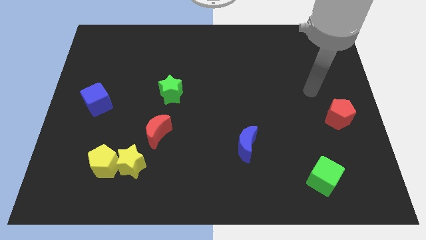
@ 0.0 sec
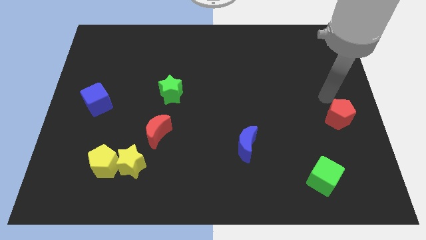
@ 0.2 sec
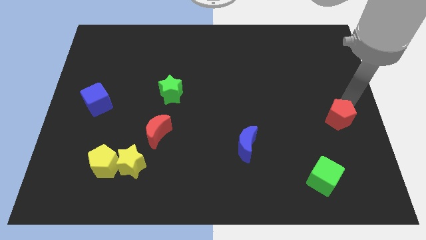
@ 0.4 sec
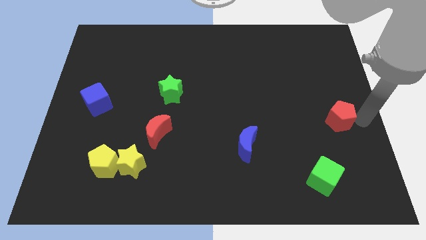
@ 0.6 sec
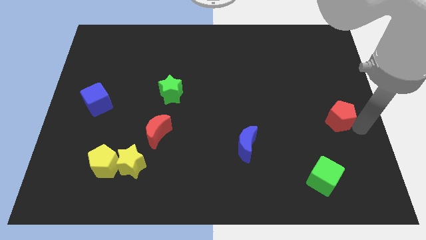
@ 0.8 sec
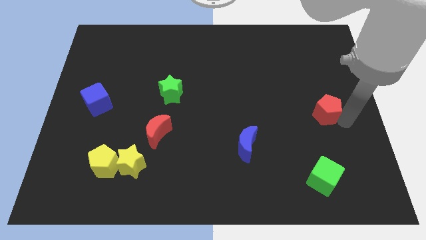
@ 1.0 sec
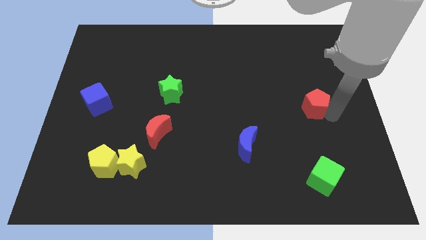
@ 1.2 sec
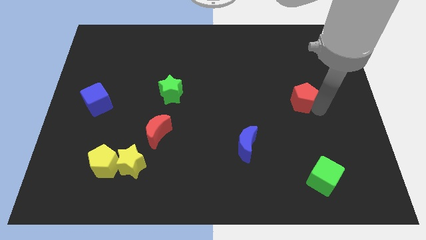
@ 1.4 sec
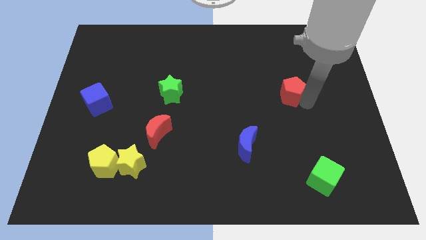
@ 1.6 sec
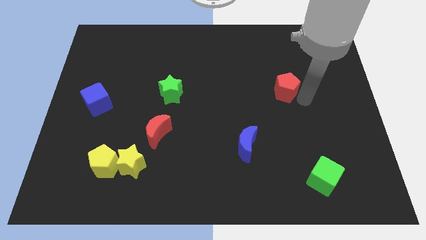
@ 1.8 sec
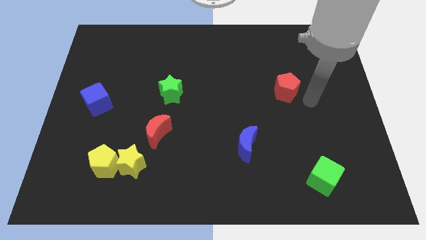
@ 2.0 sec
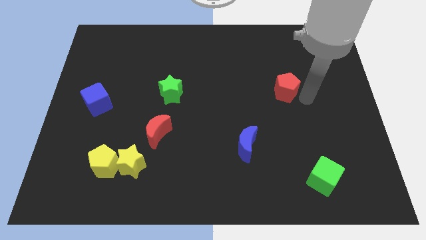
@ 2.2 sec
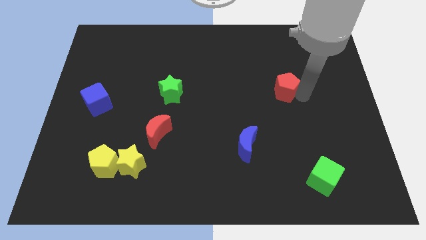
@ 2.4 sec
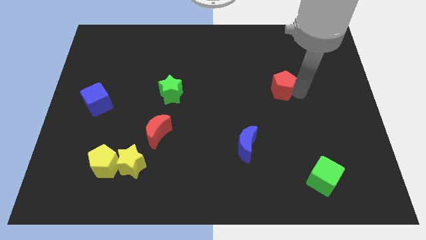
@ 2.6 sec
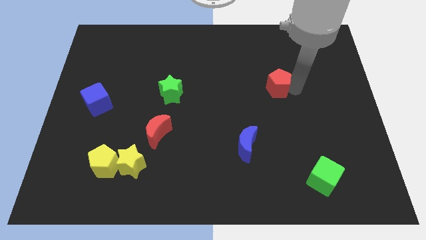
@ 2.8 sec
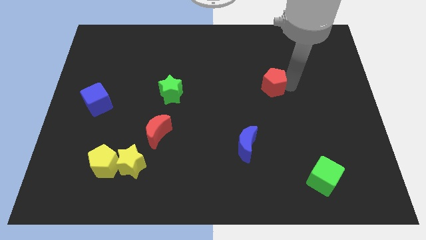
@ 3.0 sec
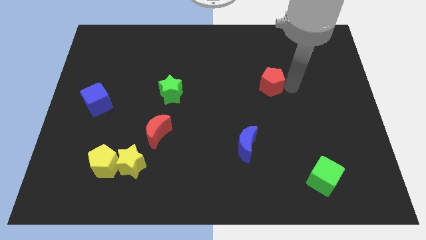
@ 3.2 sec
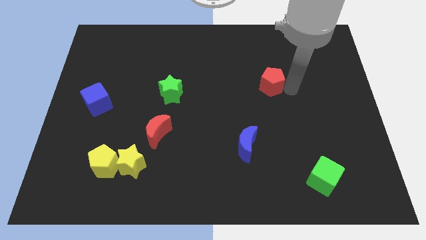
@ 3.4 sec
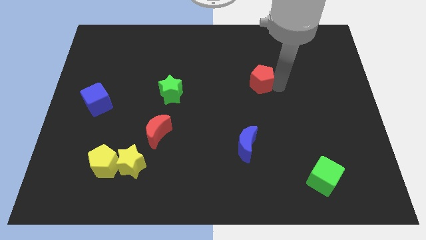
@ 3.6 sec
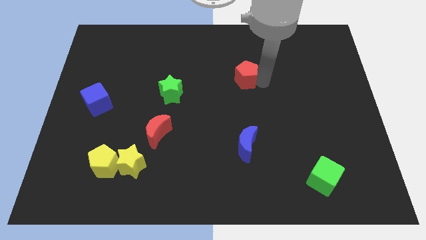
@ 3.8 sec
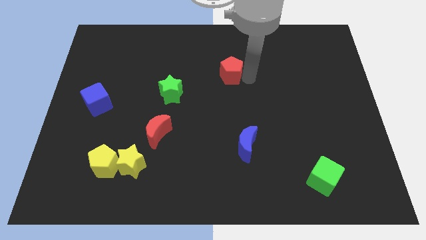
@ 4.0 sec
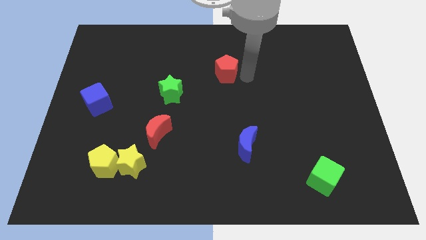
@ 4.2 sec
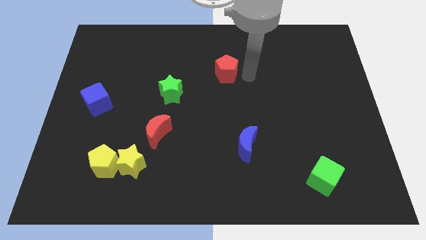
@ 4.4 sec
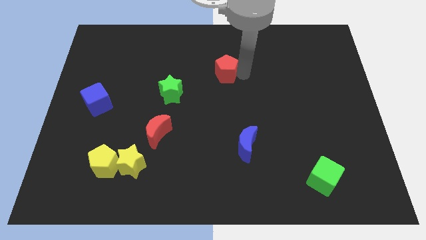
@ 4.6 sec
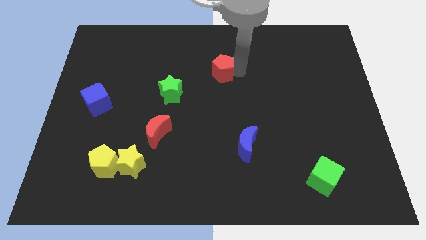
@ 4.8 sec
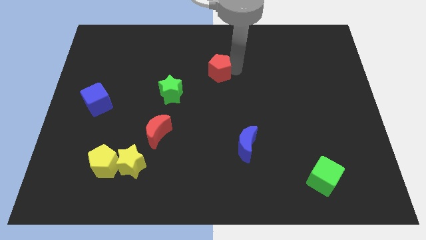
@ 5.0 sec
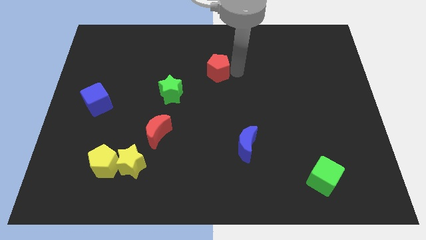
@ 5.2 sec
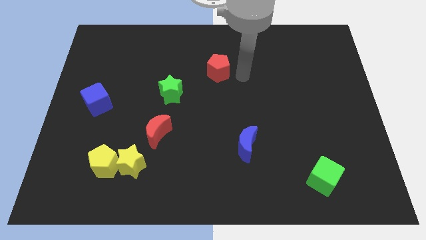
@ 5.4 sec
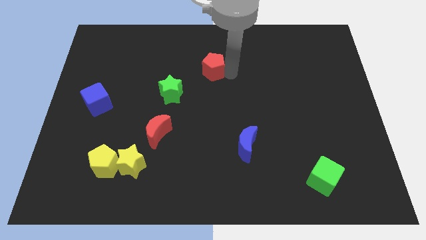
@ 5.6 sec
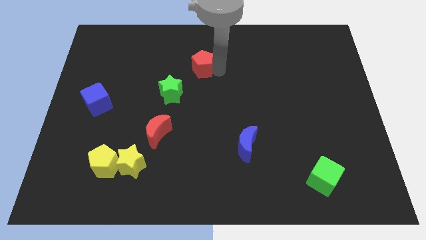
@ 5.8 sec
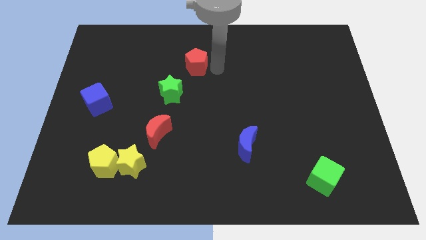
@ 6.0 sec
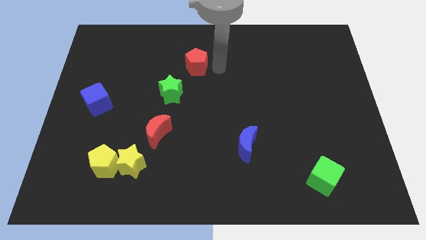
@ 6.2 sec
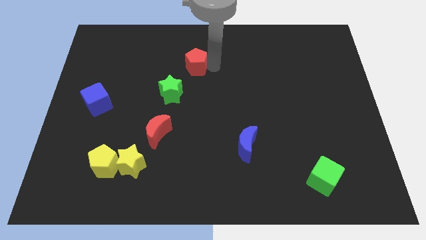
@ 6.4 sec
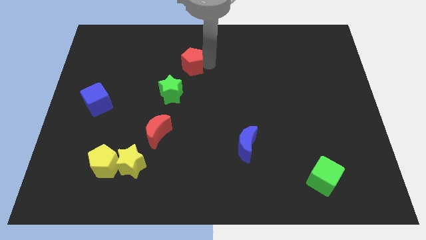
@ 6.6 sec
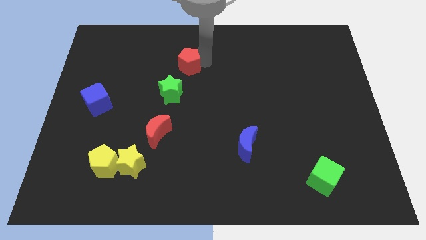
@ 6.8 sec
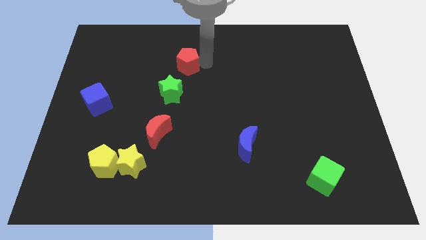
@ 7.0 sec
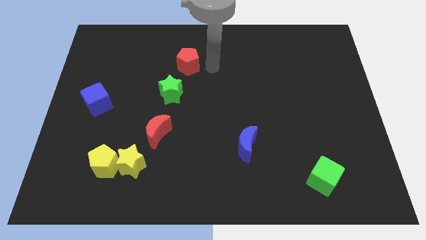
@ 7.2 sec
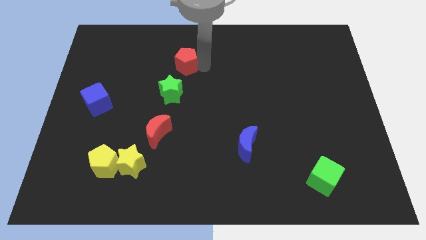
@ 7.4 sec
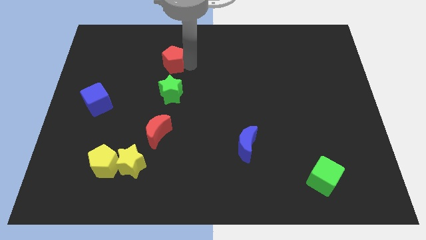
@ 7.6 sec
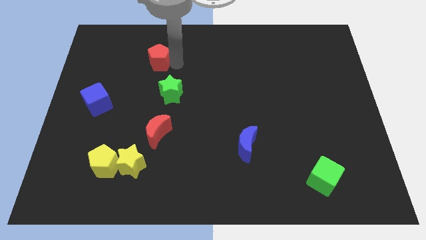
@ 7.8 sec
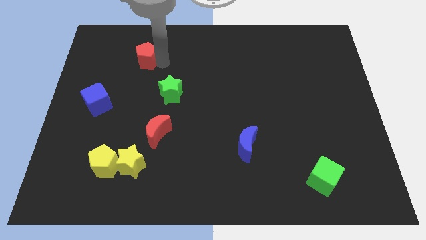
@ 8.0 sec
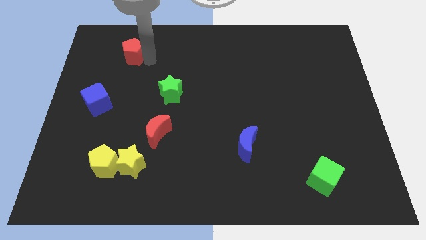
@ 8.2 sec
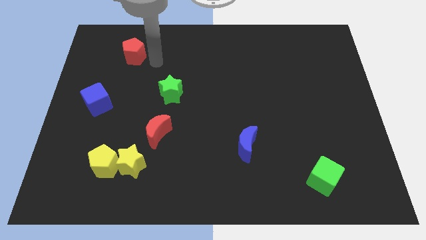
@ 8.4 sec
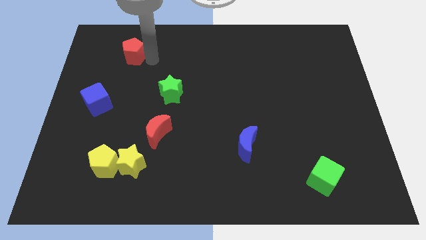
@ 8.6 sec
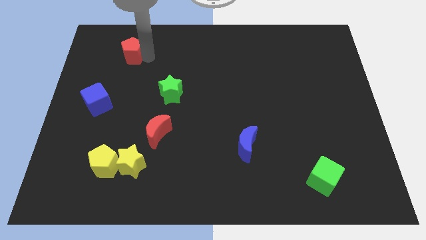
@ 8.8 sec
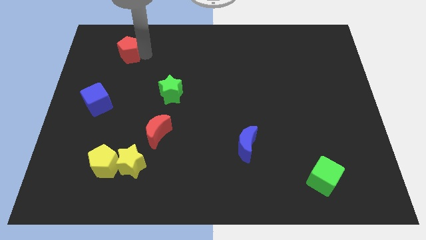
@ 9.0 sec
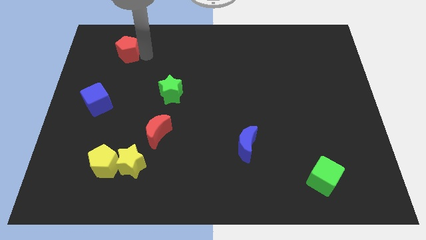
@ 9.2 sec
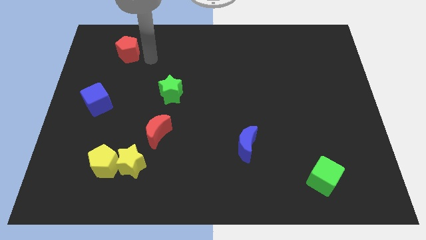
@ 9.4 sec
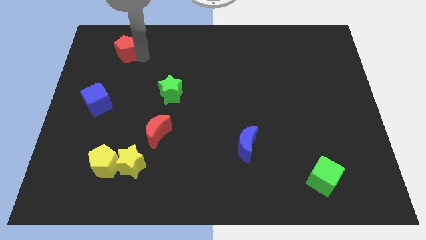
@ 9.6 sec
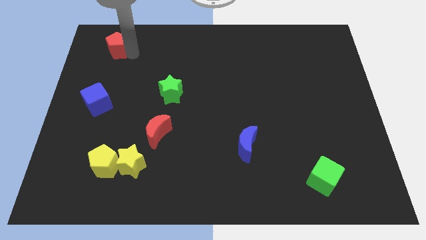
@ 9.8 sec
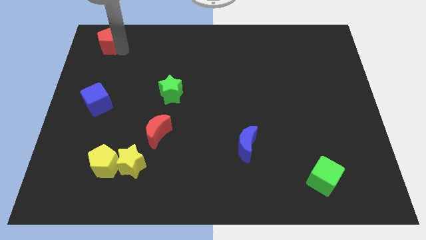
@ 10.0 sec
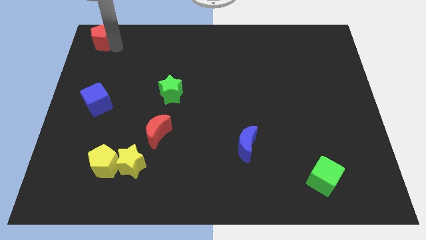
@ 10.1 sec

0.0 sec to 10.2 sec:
slide the red pentagon to the top left
